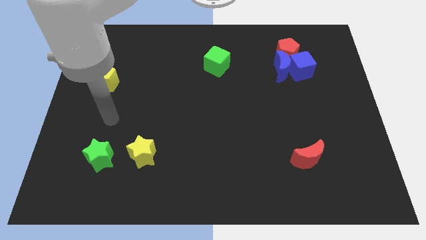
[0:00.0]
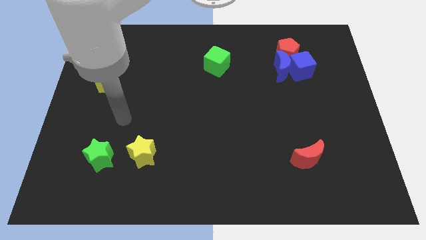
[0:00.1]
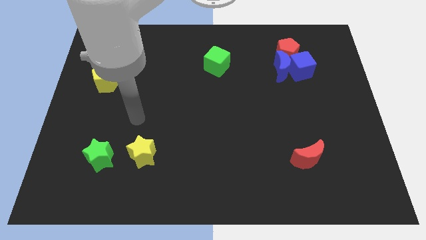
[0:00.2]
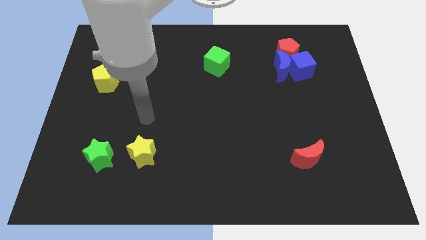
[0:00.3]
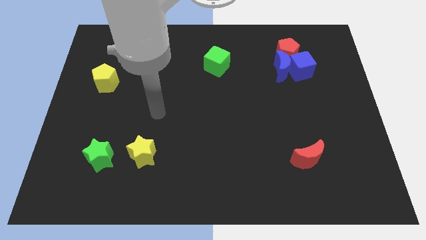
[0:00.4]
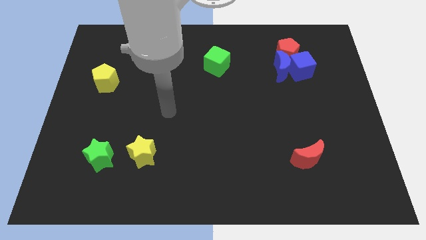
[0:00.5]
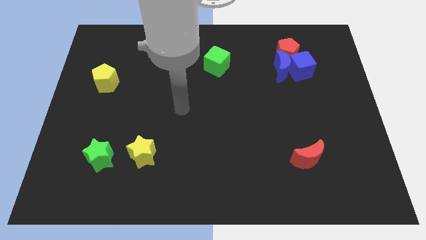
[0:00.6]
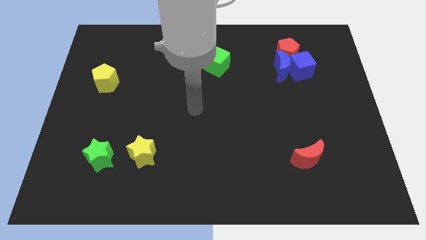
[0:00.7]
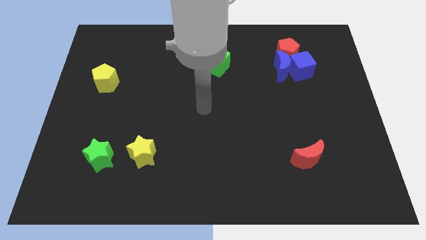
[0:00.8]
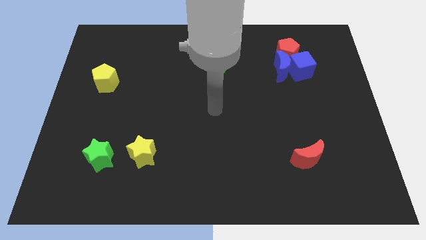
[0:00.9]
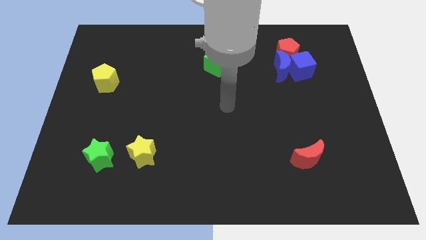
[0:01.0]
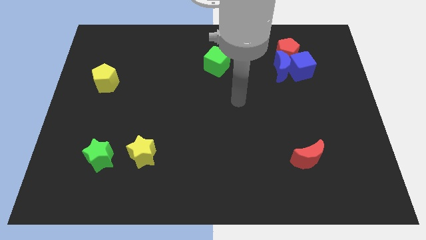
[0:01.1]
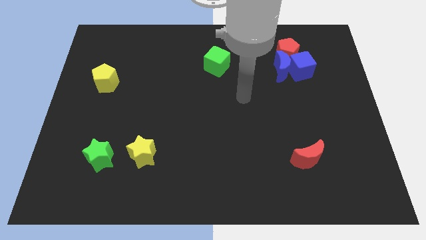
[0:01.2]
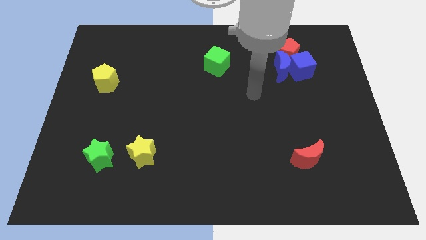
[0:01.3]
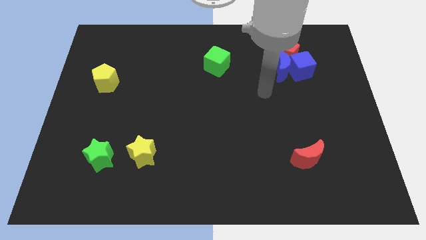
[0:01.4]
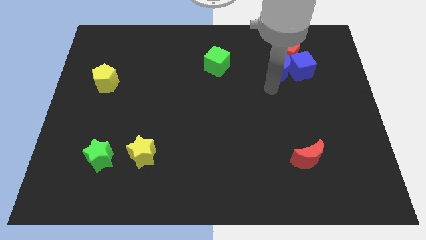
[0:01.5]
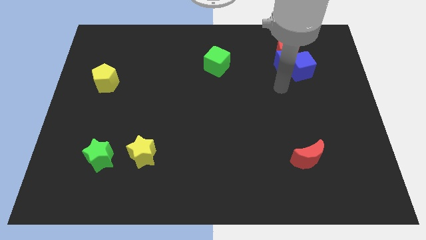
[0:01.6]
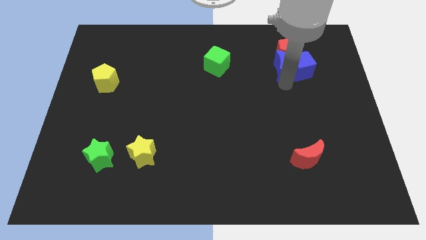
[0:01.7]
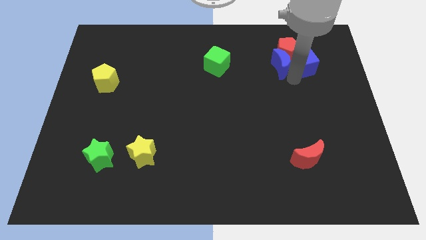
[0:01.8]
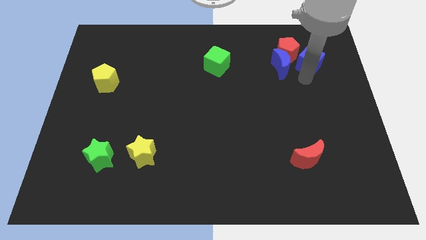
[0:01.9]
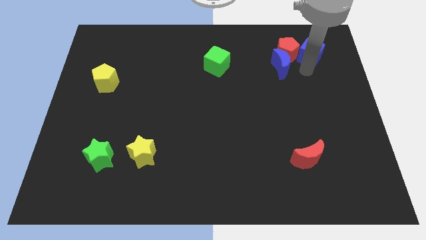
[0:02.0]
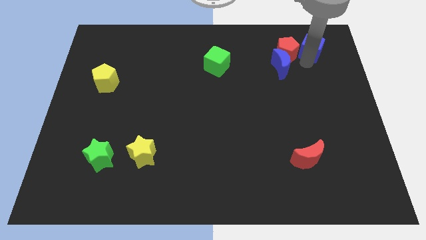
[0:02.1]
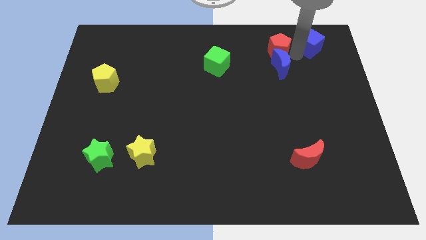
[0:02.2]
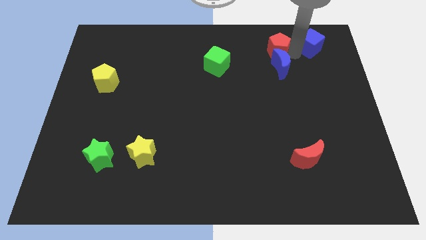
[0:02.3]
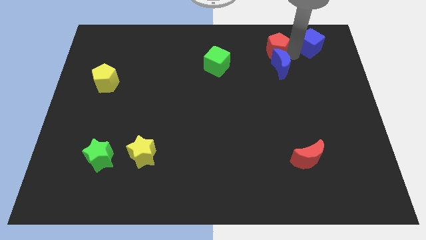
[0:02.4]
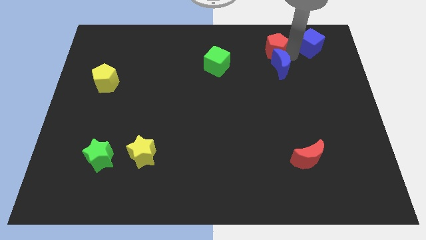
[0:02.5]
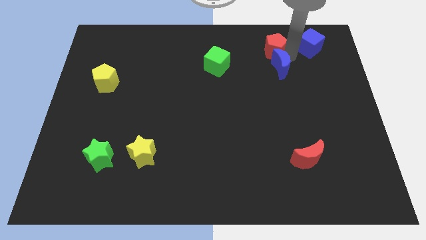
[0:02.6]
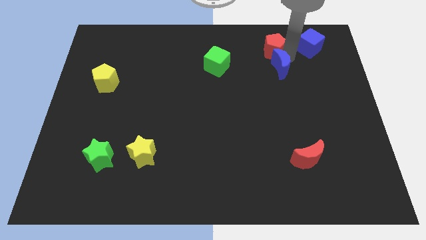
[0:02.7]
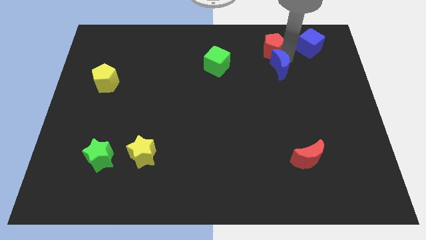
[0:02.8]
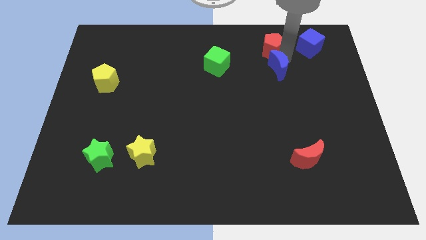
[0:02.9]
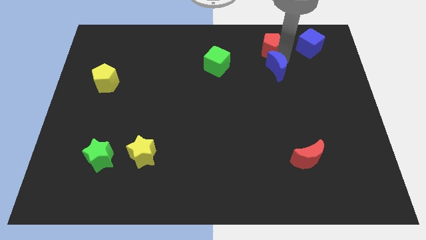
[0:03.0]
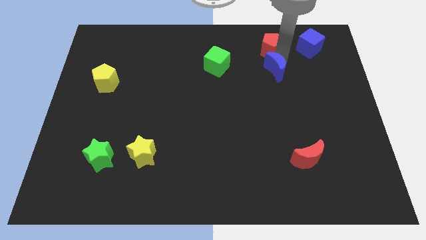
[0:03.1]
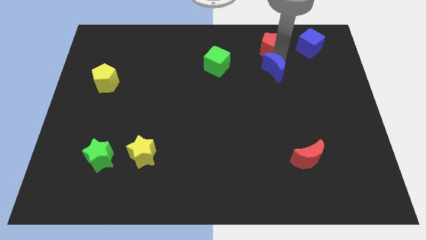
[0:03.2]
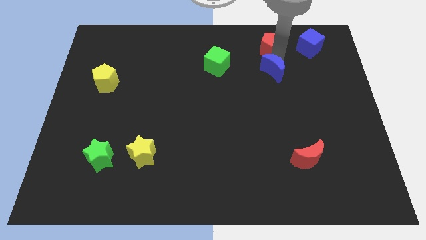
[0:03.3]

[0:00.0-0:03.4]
move the blue moon away from the blue cube and red pentagon

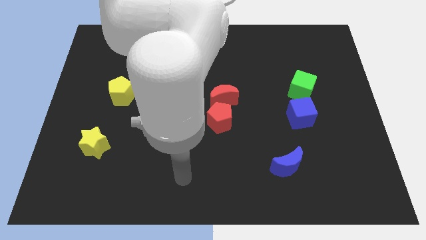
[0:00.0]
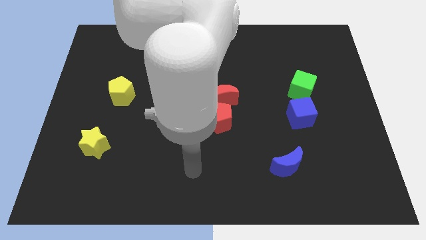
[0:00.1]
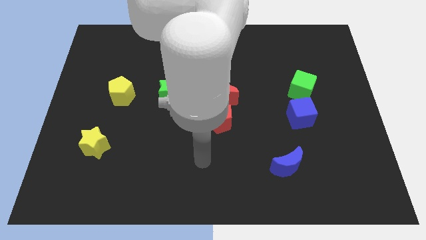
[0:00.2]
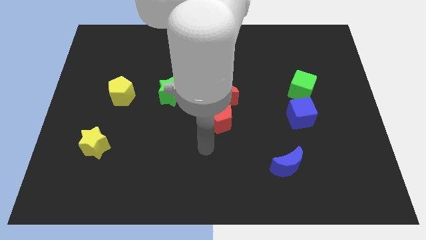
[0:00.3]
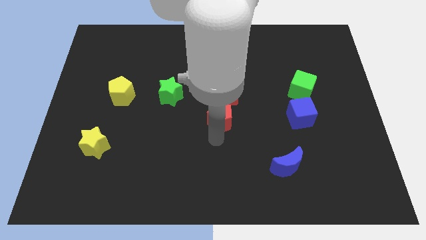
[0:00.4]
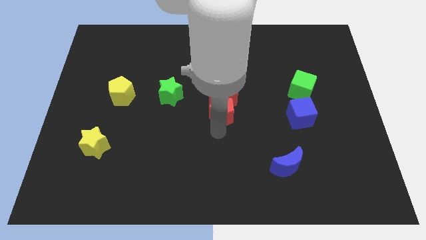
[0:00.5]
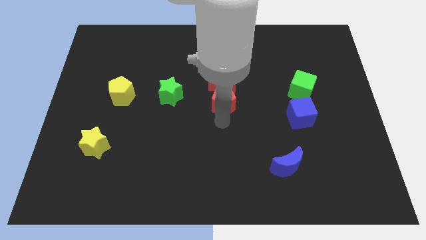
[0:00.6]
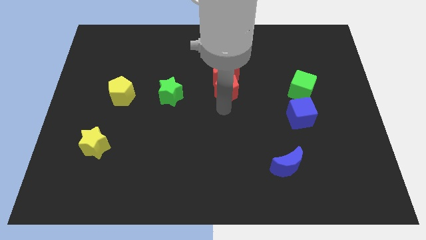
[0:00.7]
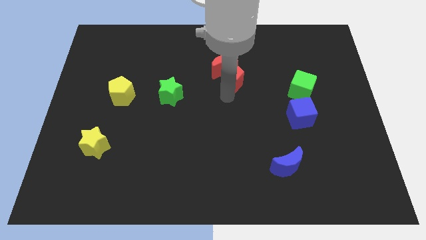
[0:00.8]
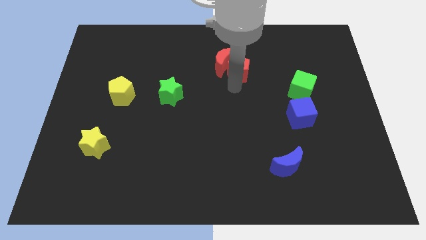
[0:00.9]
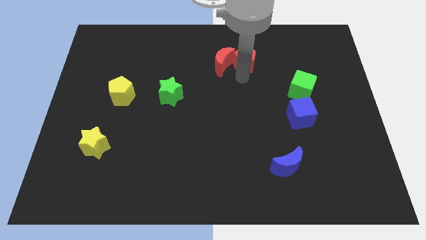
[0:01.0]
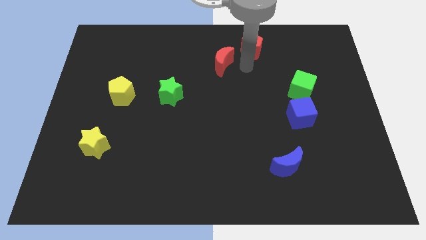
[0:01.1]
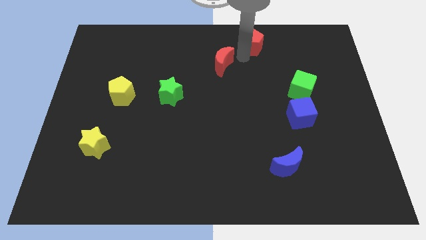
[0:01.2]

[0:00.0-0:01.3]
separate the red moon from the red pentagon

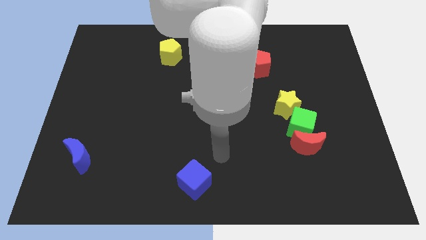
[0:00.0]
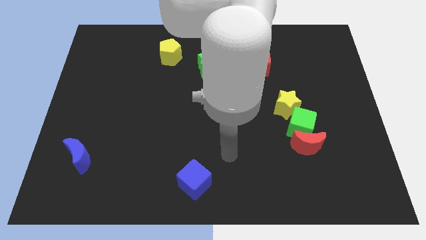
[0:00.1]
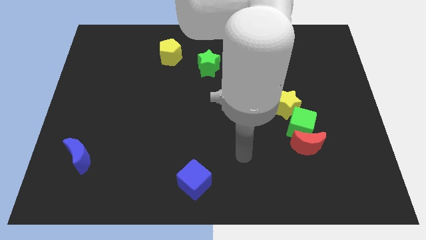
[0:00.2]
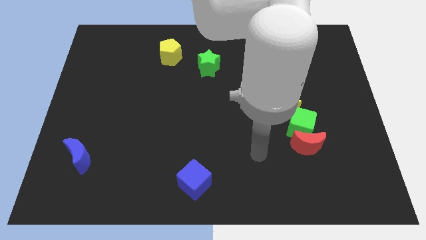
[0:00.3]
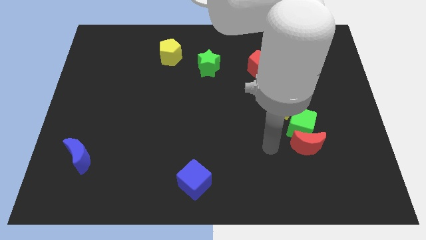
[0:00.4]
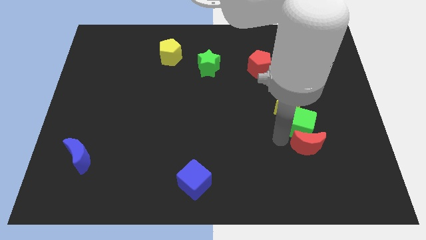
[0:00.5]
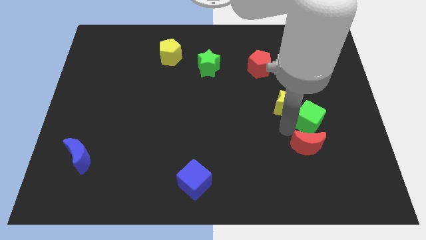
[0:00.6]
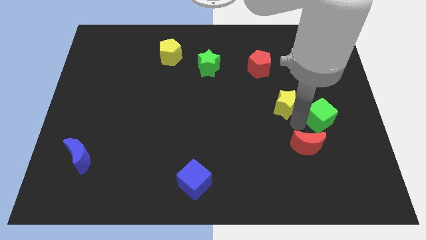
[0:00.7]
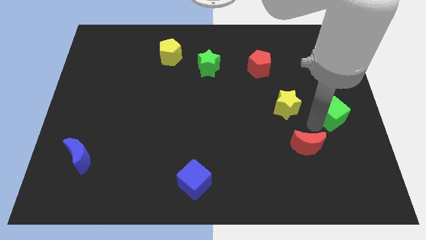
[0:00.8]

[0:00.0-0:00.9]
pull the red moon apart from the green cube

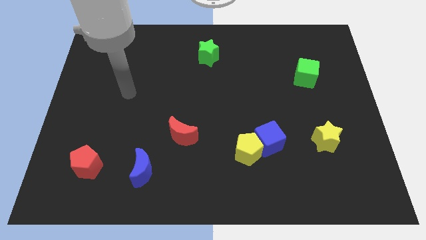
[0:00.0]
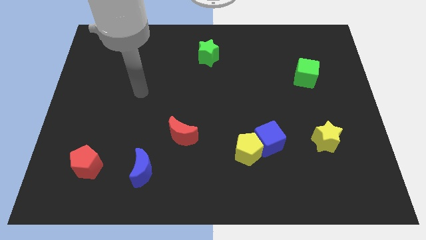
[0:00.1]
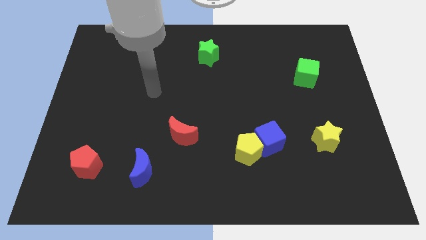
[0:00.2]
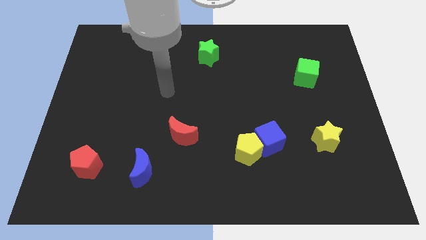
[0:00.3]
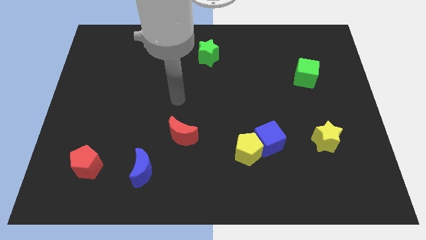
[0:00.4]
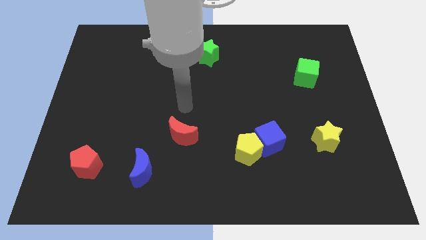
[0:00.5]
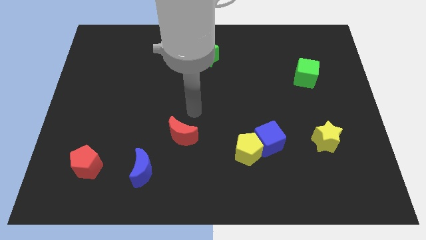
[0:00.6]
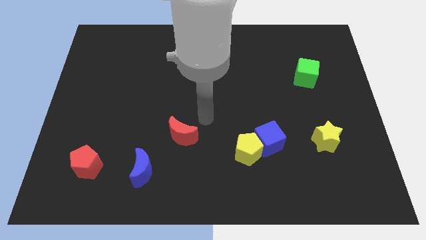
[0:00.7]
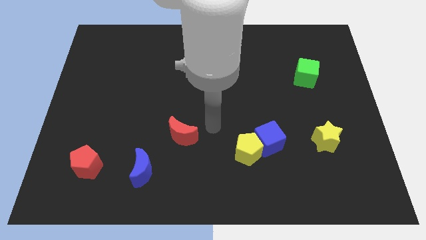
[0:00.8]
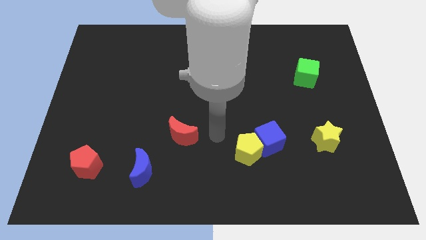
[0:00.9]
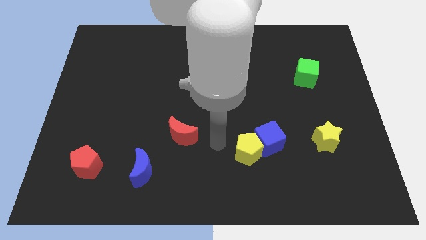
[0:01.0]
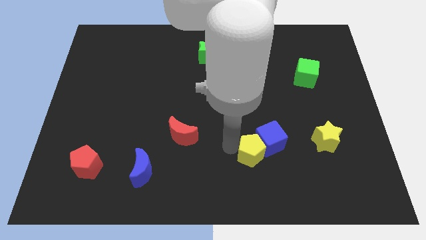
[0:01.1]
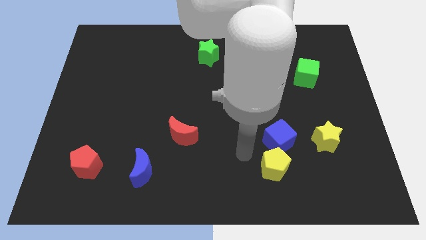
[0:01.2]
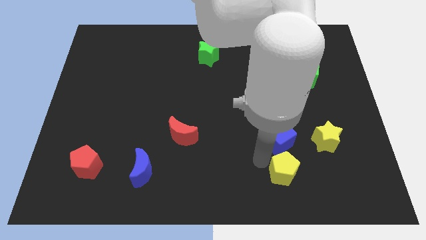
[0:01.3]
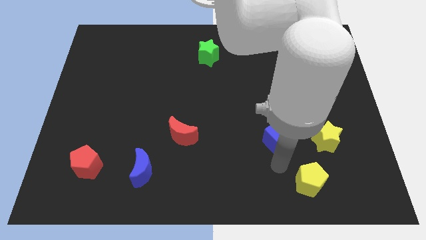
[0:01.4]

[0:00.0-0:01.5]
separate the blue cube from the yellow pentagon

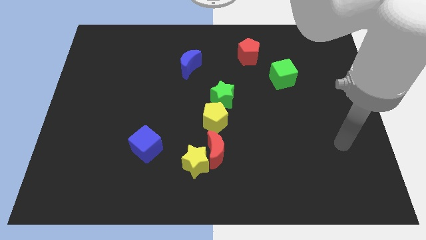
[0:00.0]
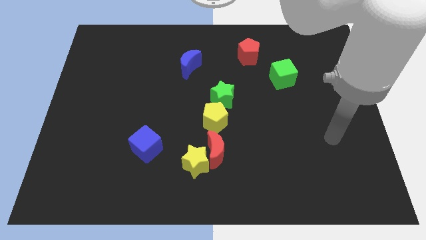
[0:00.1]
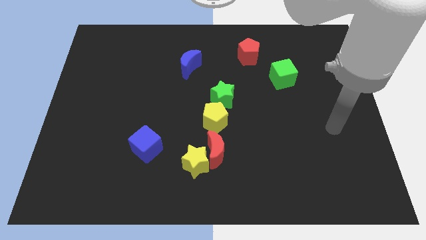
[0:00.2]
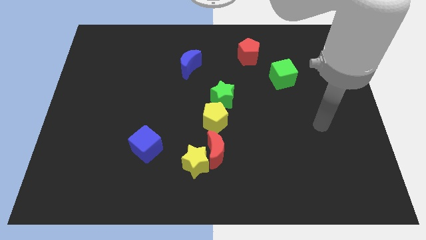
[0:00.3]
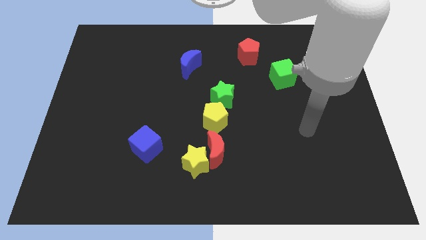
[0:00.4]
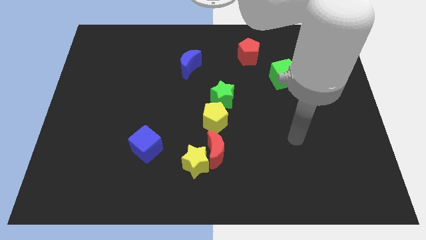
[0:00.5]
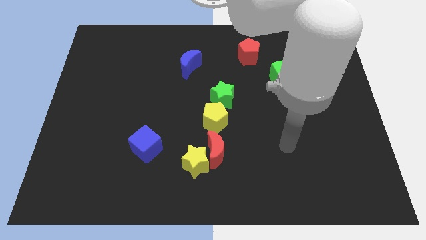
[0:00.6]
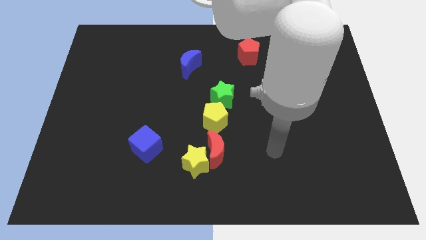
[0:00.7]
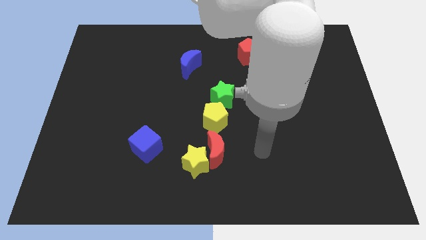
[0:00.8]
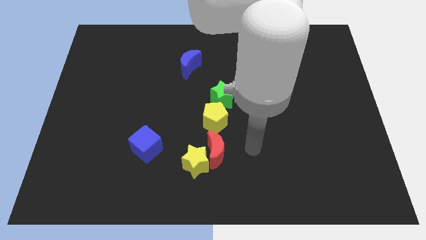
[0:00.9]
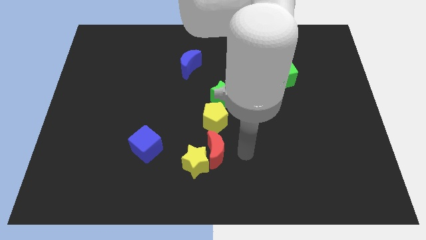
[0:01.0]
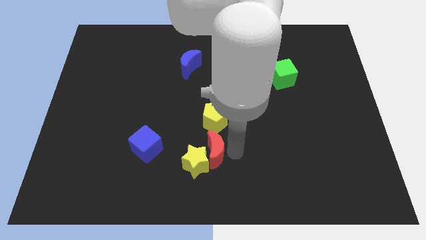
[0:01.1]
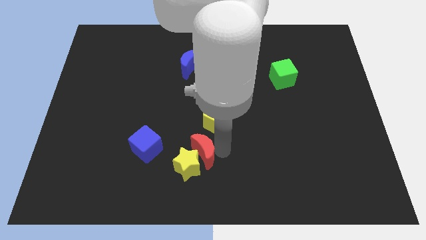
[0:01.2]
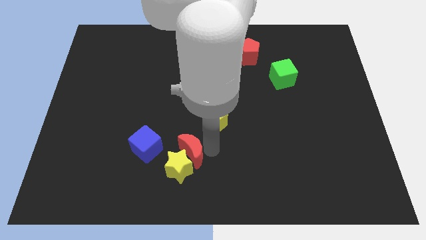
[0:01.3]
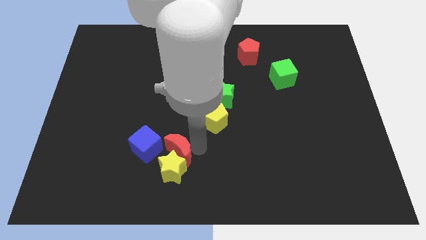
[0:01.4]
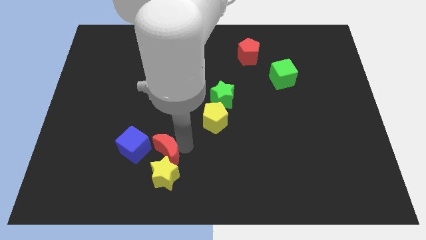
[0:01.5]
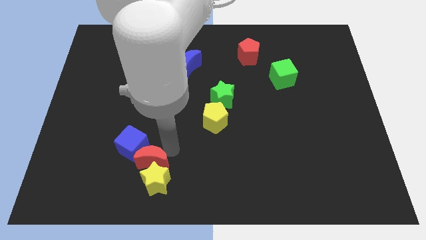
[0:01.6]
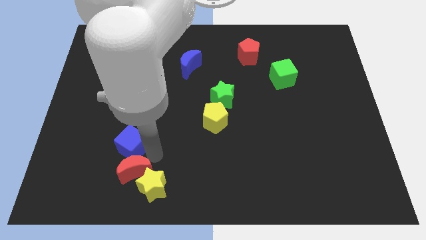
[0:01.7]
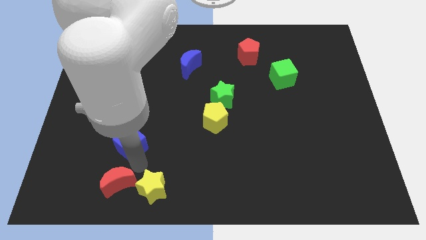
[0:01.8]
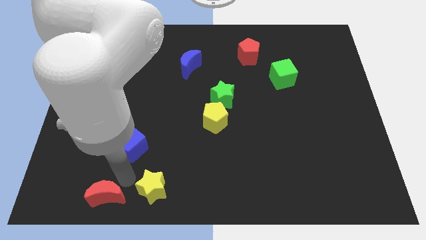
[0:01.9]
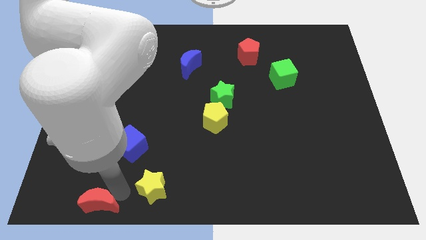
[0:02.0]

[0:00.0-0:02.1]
pull the yellow star apart from the red moon

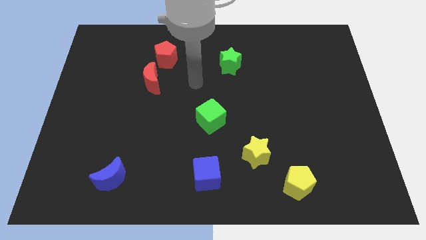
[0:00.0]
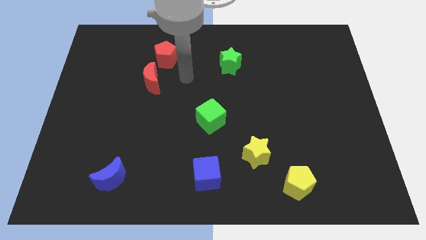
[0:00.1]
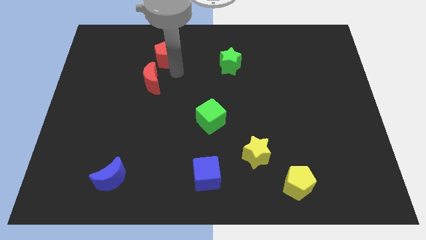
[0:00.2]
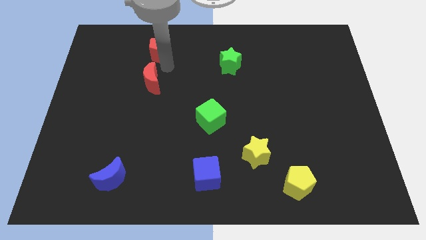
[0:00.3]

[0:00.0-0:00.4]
pull the red moon apart from the red pentagon
